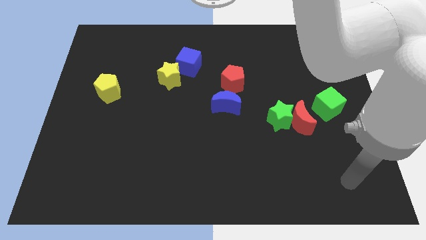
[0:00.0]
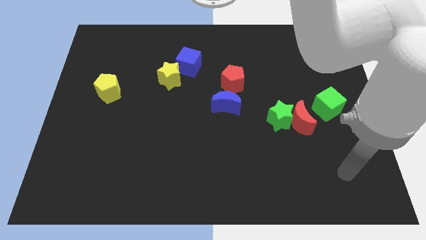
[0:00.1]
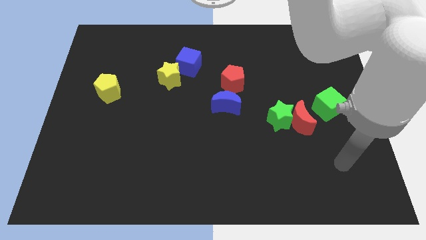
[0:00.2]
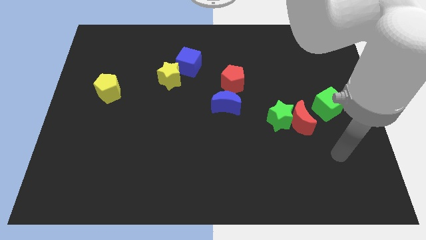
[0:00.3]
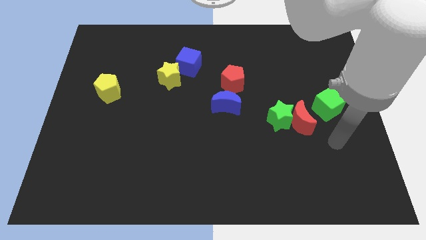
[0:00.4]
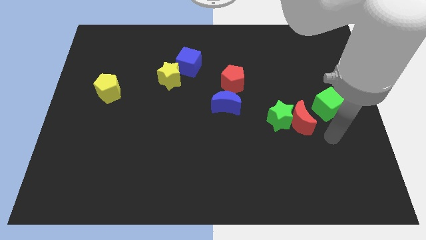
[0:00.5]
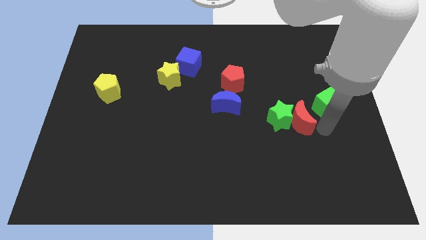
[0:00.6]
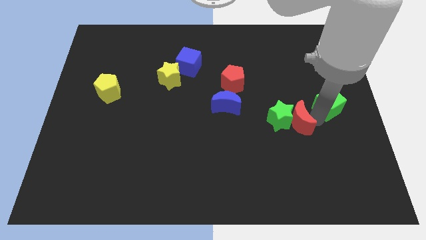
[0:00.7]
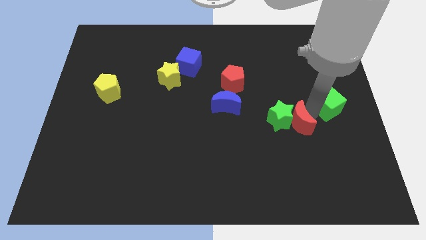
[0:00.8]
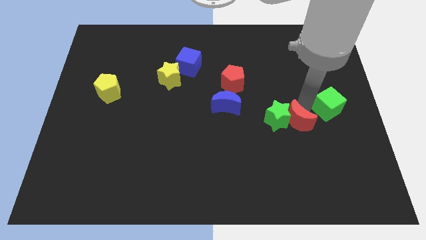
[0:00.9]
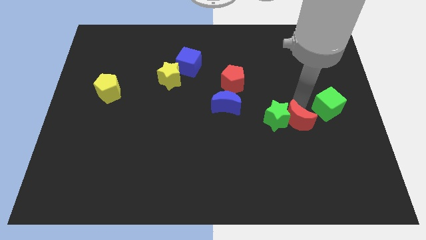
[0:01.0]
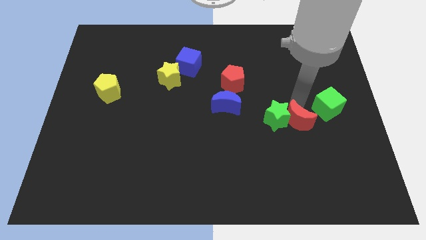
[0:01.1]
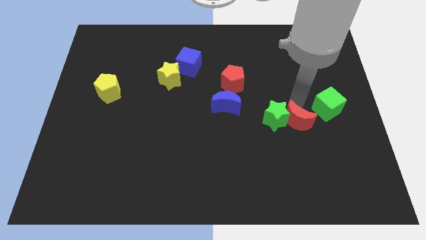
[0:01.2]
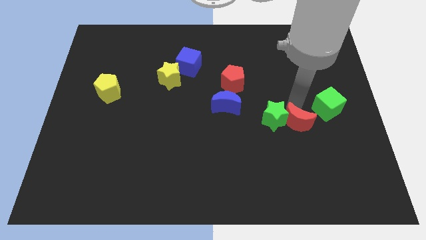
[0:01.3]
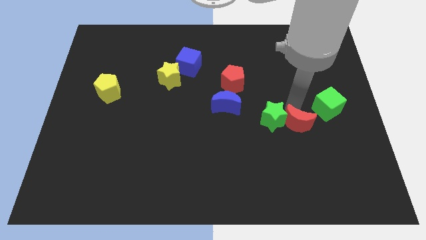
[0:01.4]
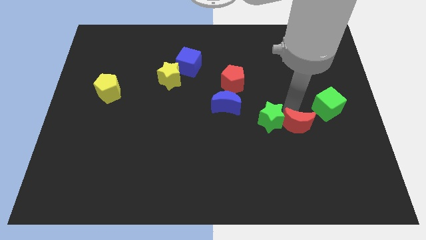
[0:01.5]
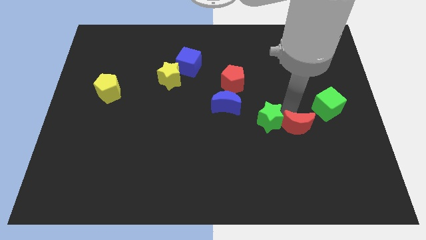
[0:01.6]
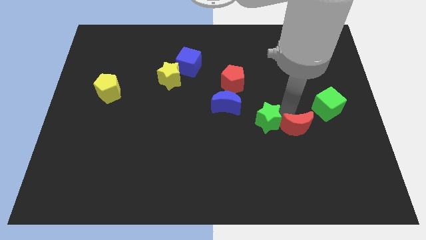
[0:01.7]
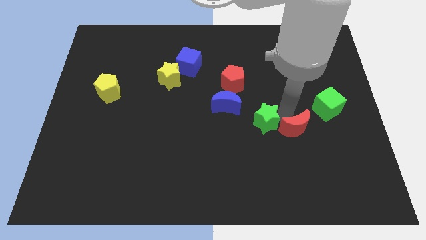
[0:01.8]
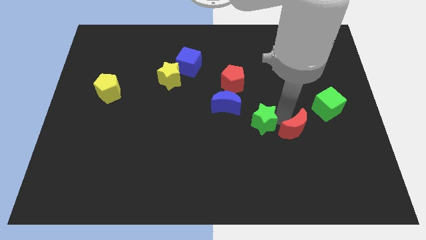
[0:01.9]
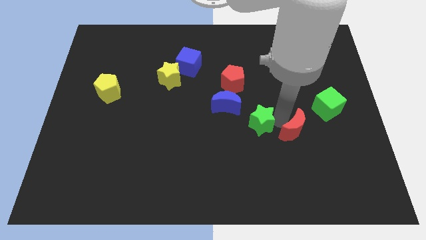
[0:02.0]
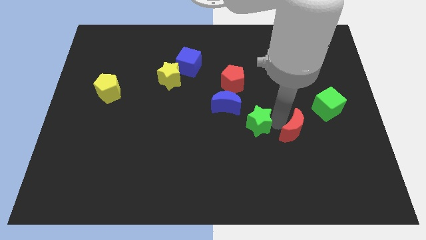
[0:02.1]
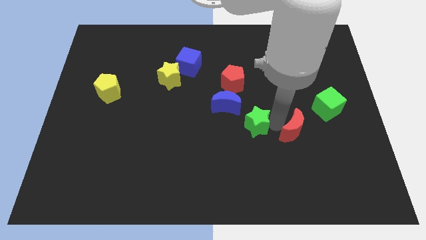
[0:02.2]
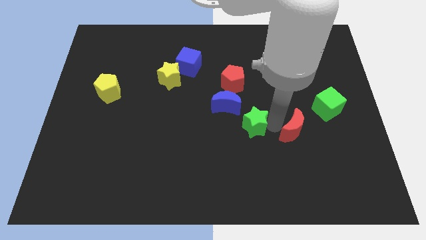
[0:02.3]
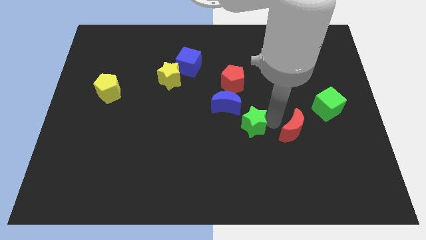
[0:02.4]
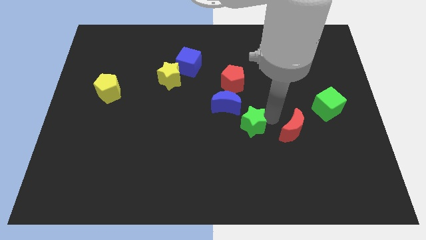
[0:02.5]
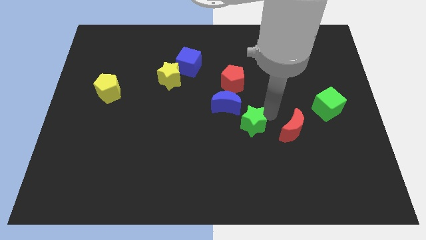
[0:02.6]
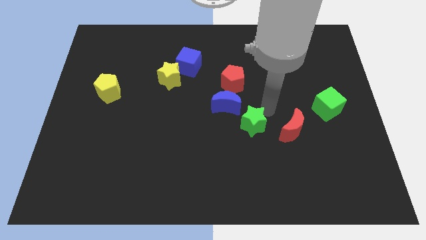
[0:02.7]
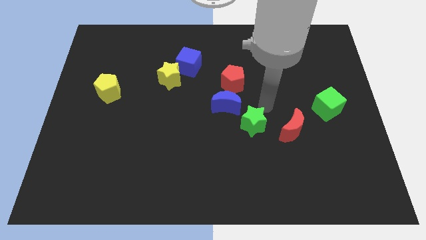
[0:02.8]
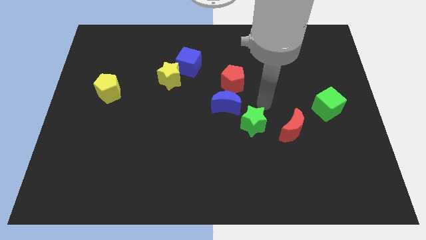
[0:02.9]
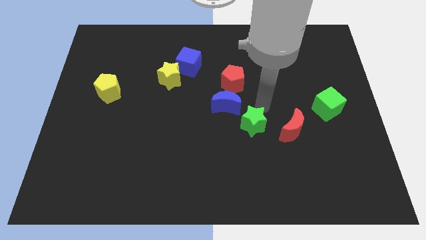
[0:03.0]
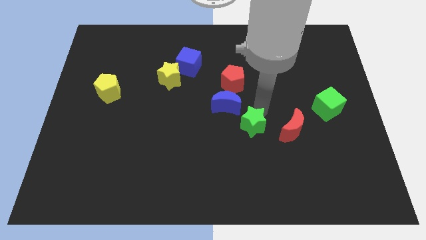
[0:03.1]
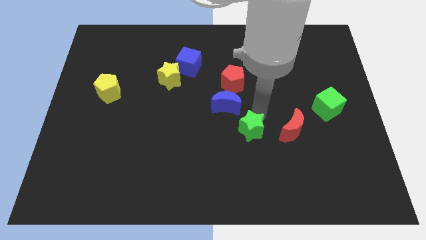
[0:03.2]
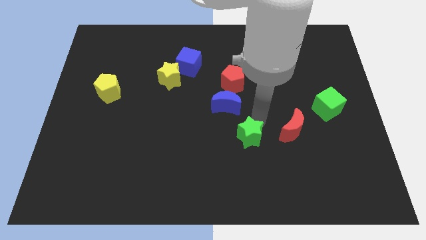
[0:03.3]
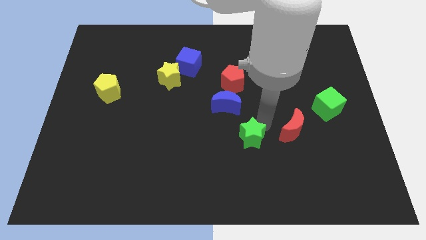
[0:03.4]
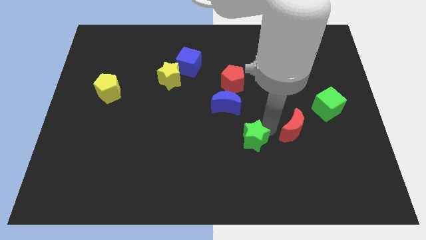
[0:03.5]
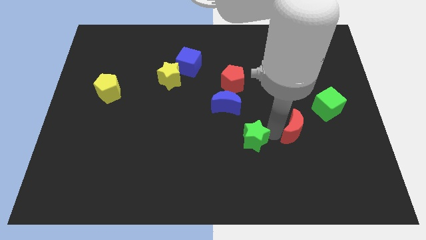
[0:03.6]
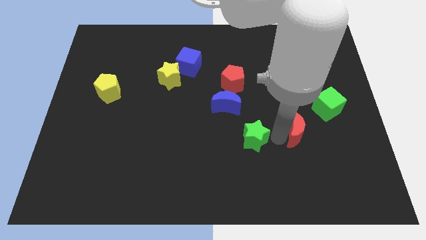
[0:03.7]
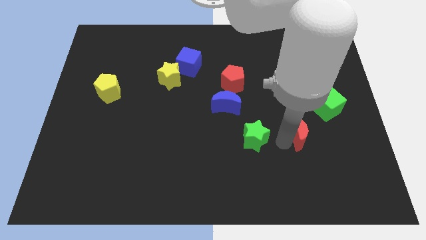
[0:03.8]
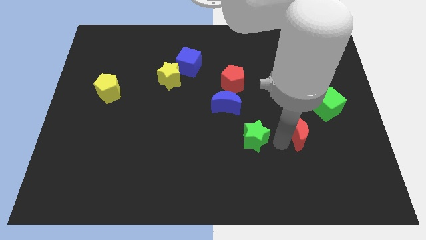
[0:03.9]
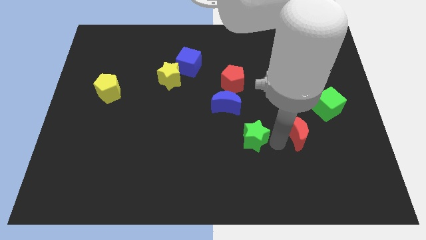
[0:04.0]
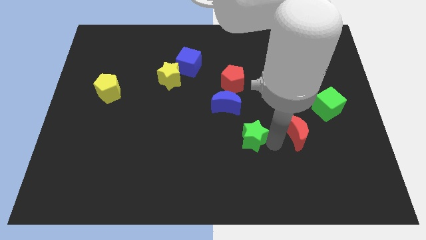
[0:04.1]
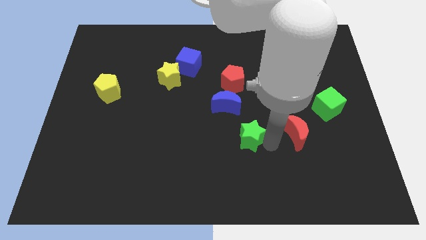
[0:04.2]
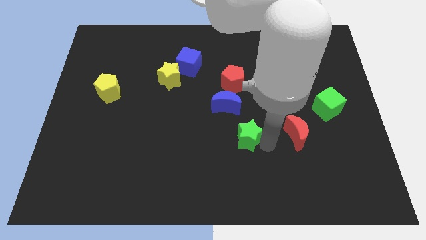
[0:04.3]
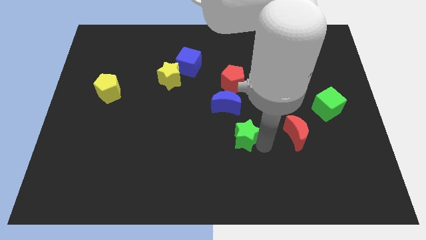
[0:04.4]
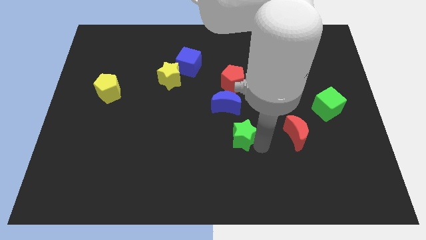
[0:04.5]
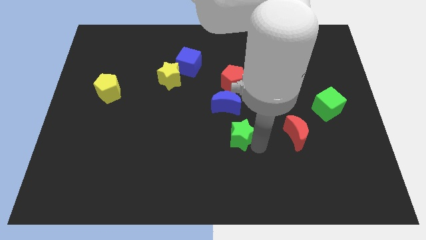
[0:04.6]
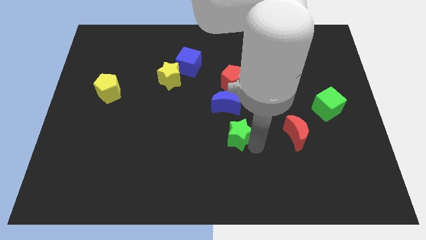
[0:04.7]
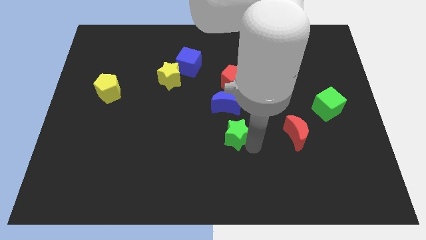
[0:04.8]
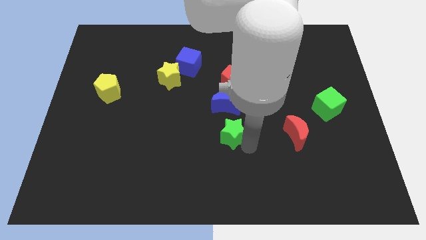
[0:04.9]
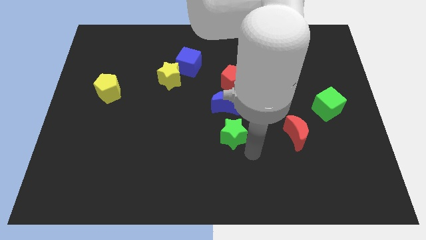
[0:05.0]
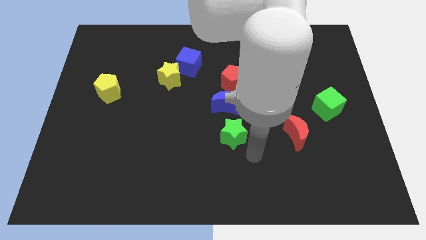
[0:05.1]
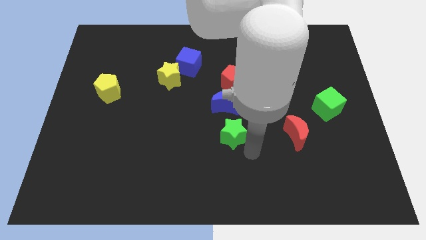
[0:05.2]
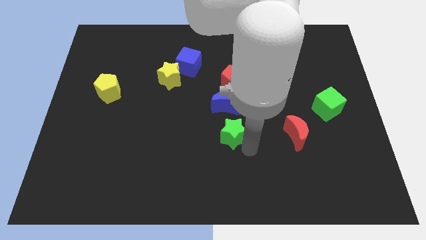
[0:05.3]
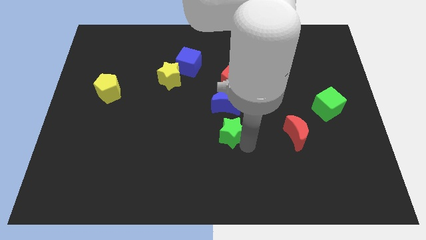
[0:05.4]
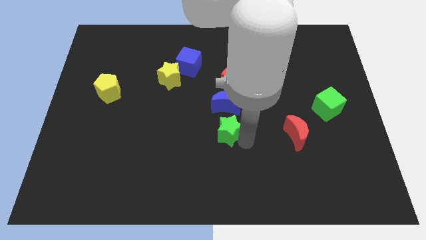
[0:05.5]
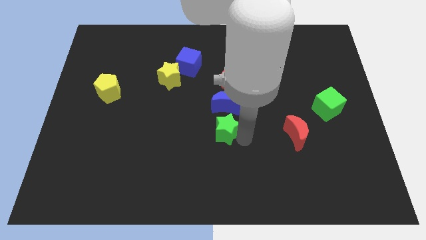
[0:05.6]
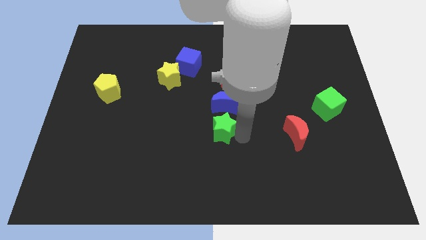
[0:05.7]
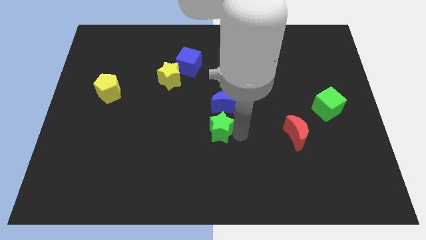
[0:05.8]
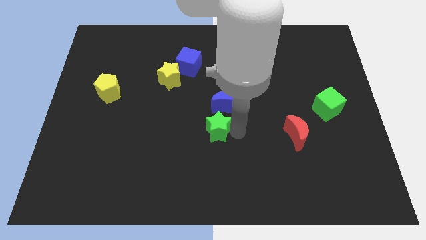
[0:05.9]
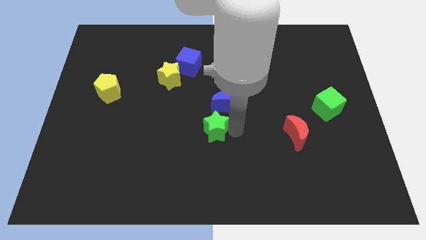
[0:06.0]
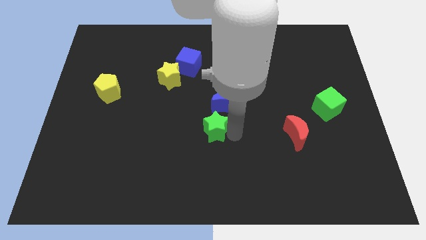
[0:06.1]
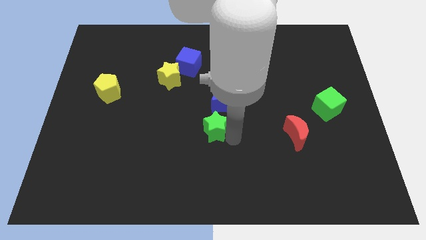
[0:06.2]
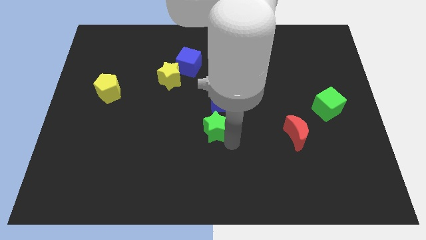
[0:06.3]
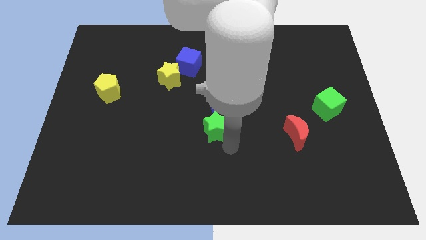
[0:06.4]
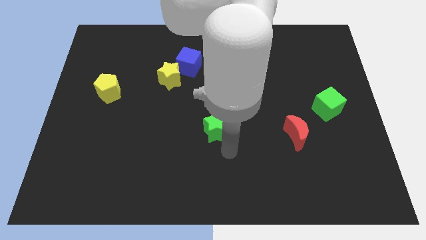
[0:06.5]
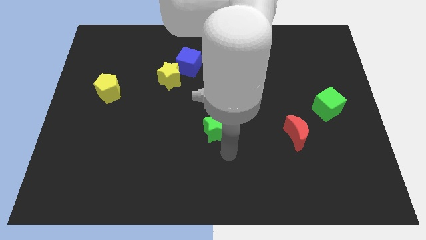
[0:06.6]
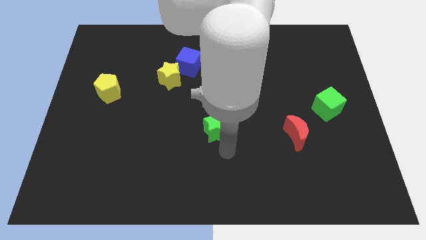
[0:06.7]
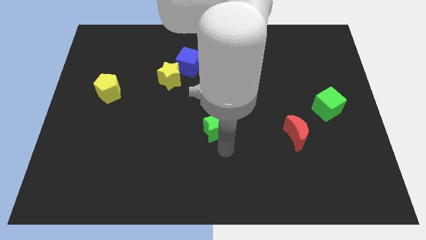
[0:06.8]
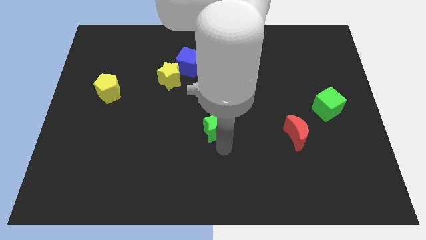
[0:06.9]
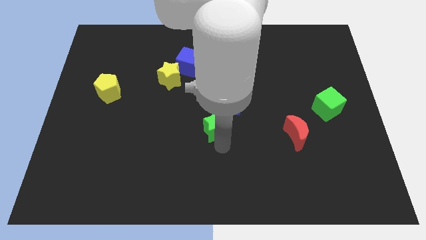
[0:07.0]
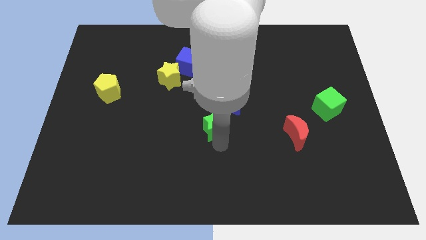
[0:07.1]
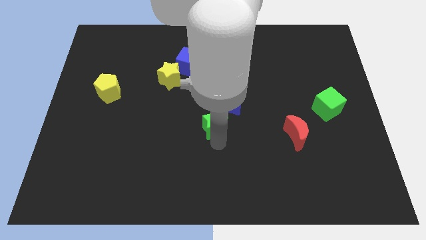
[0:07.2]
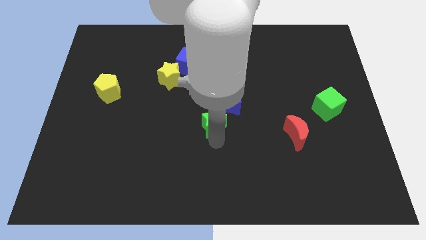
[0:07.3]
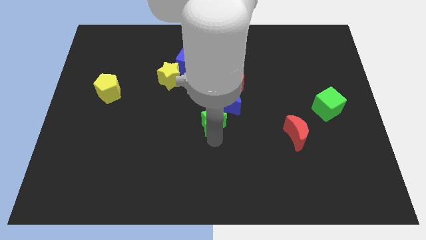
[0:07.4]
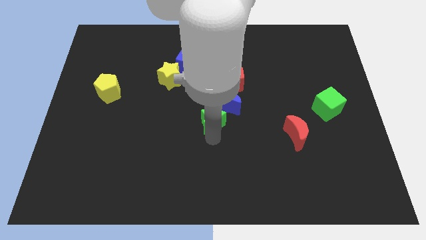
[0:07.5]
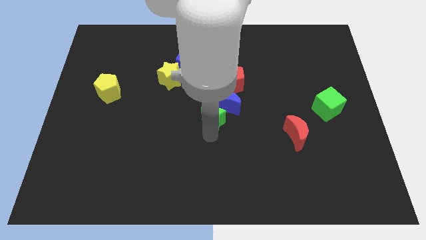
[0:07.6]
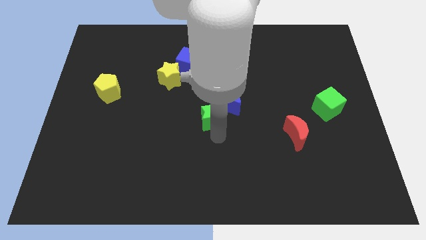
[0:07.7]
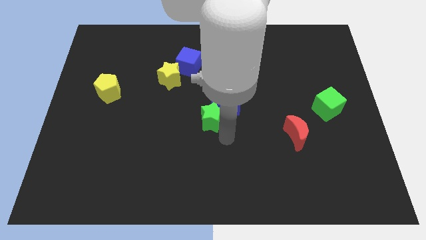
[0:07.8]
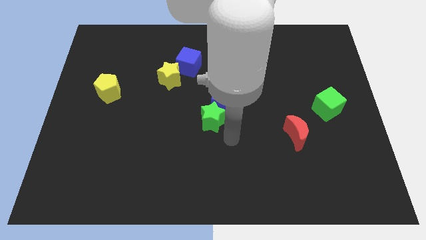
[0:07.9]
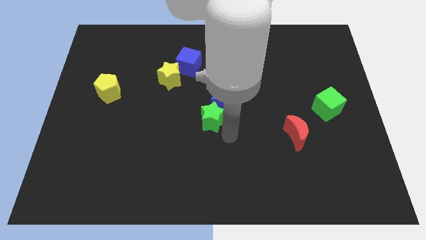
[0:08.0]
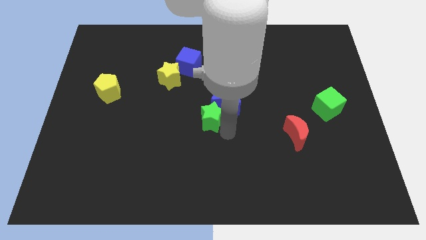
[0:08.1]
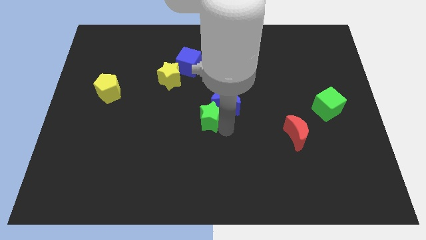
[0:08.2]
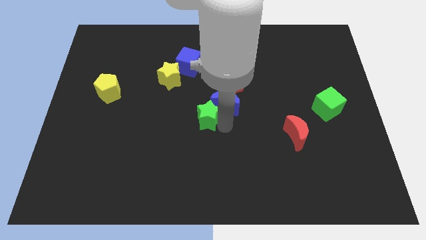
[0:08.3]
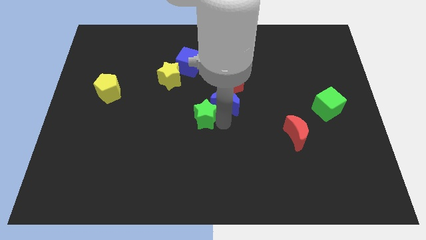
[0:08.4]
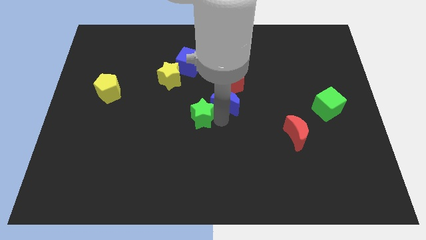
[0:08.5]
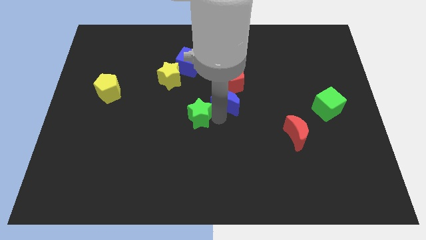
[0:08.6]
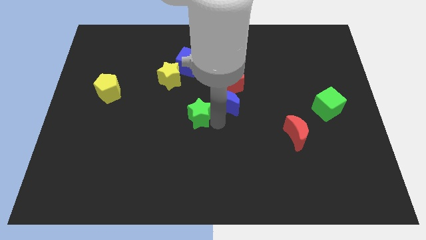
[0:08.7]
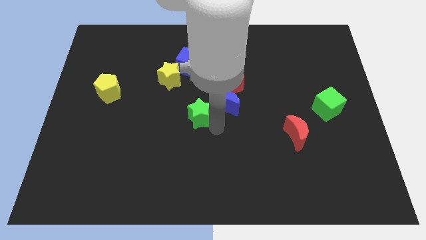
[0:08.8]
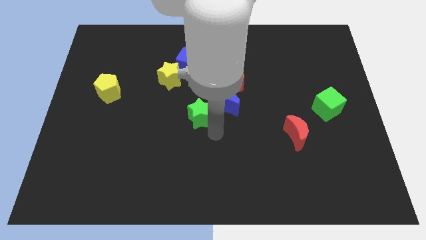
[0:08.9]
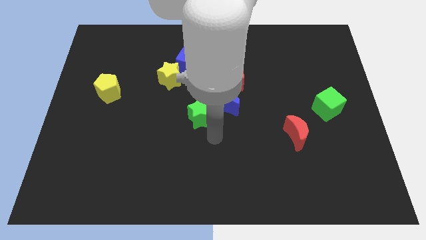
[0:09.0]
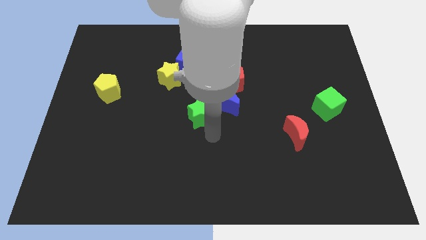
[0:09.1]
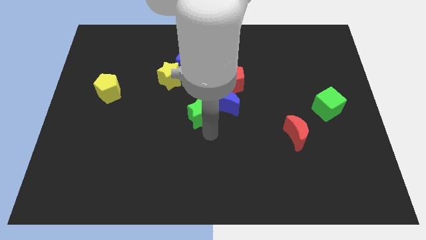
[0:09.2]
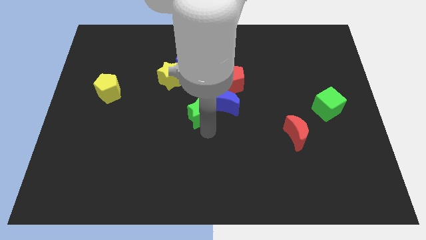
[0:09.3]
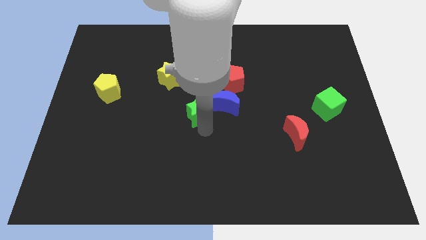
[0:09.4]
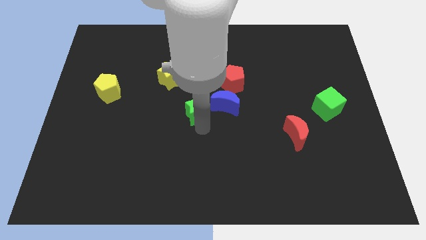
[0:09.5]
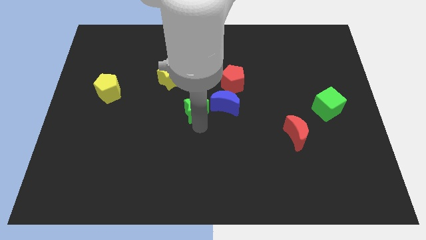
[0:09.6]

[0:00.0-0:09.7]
push the green star below the blue cube
